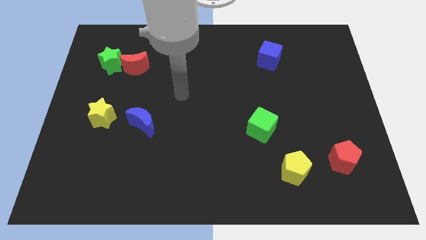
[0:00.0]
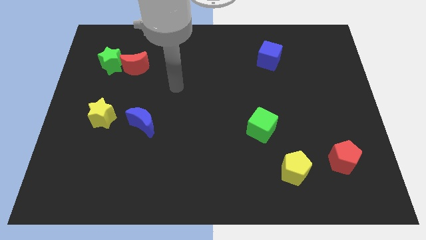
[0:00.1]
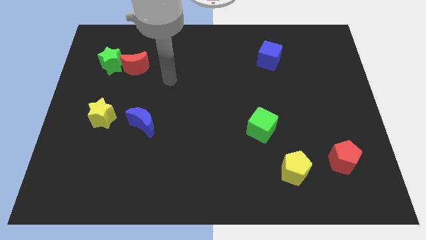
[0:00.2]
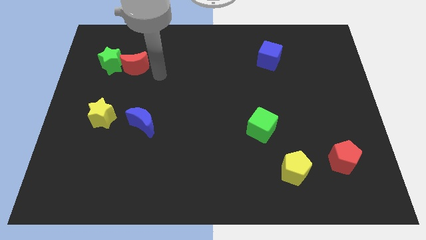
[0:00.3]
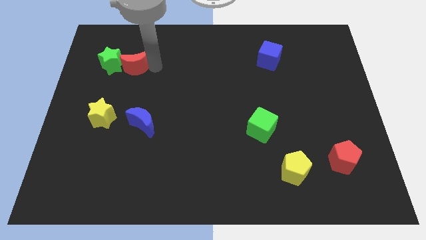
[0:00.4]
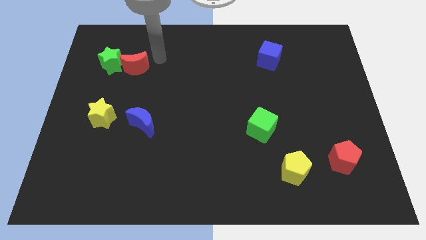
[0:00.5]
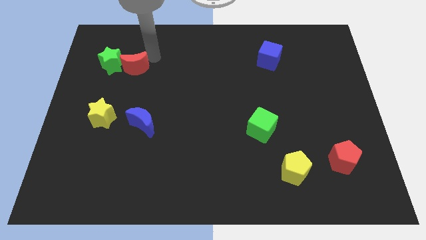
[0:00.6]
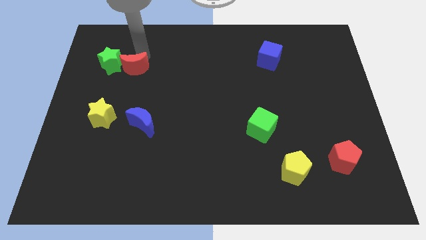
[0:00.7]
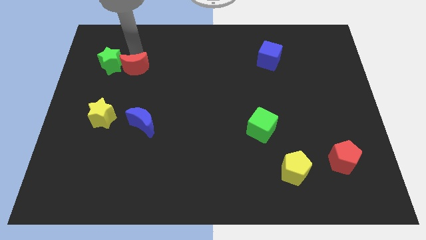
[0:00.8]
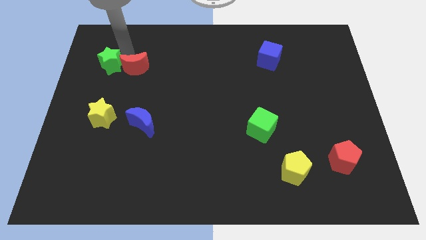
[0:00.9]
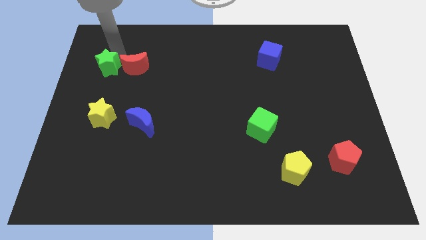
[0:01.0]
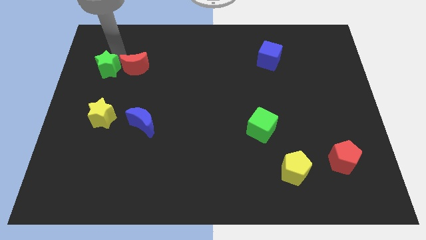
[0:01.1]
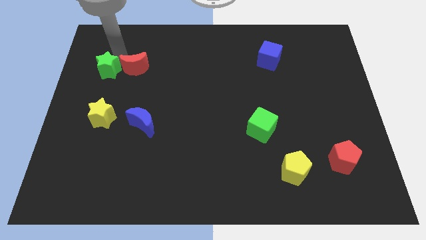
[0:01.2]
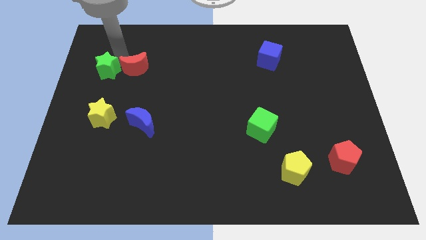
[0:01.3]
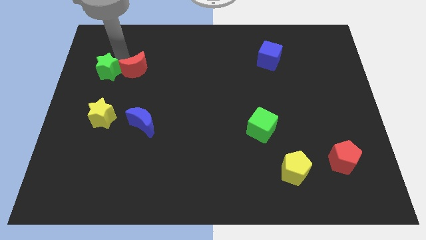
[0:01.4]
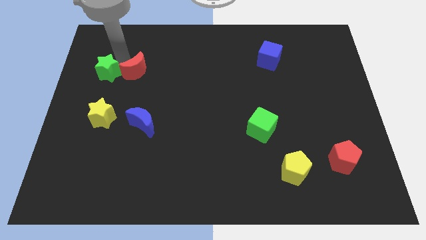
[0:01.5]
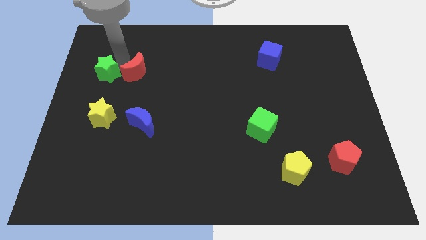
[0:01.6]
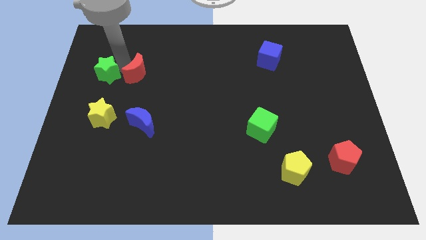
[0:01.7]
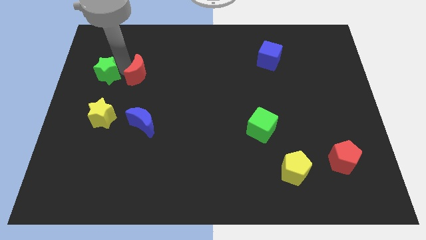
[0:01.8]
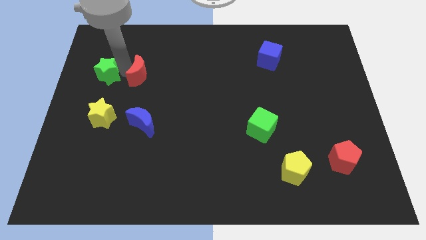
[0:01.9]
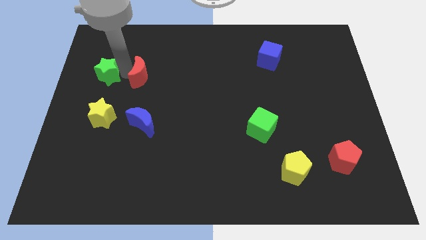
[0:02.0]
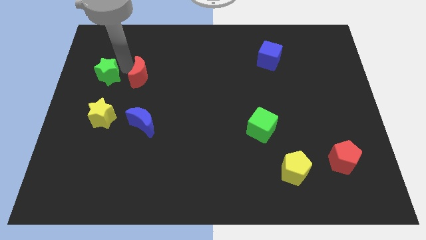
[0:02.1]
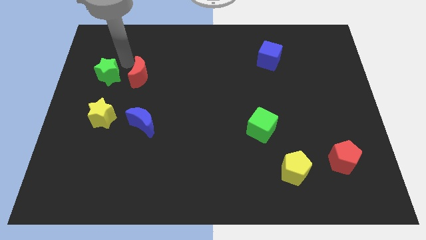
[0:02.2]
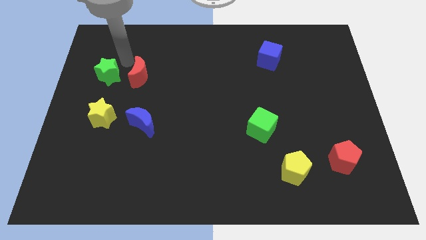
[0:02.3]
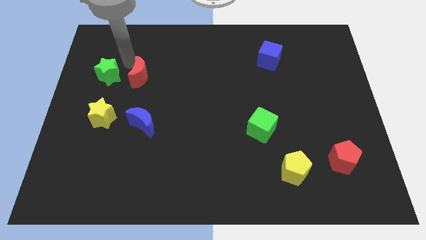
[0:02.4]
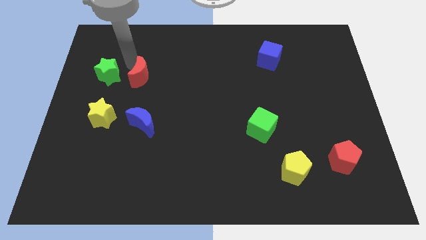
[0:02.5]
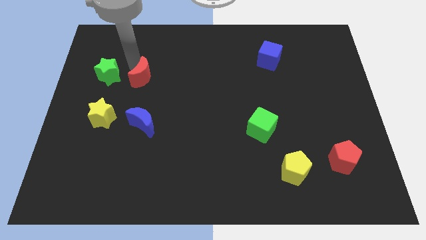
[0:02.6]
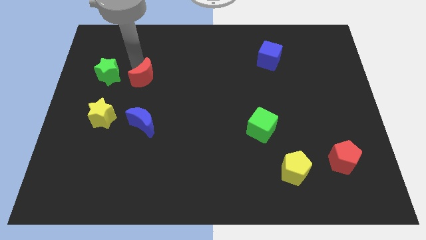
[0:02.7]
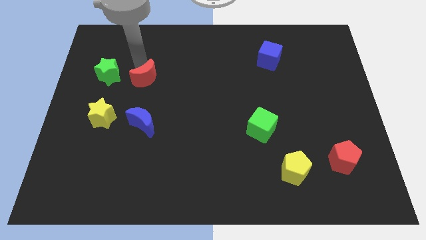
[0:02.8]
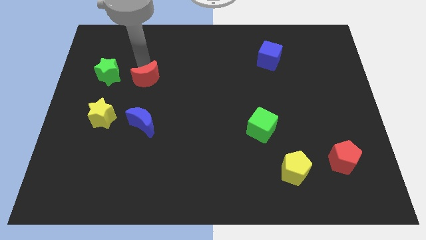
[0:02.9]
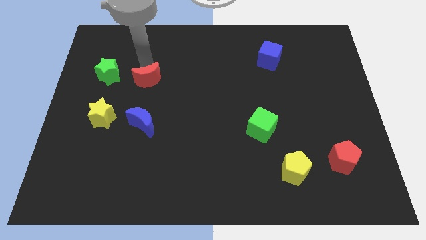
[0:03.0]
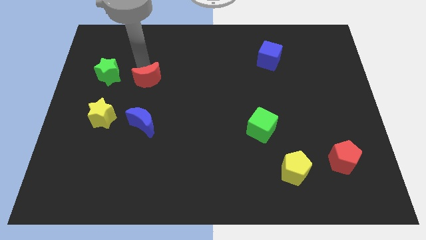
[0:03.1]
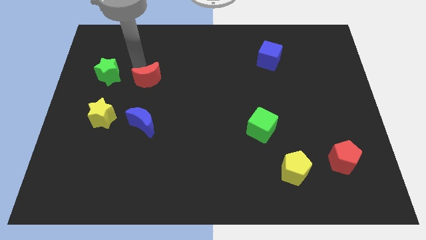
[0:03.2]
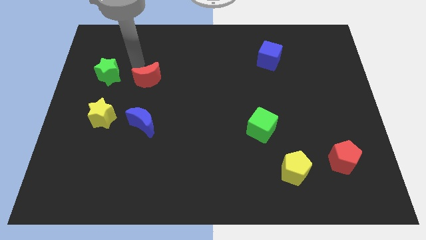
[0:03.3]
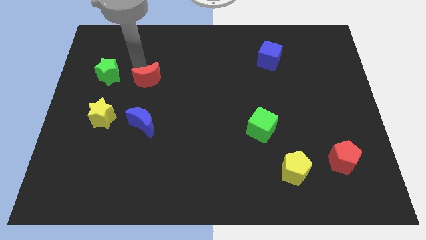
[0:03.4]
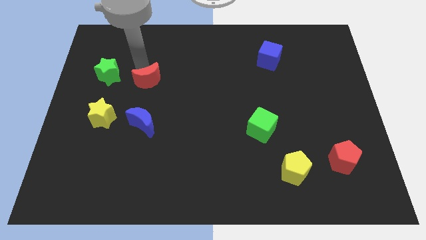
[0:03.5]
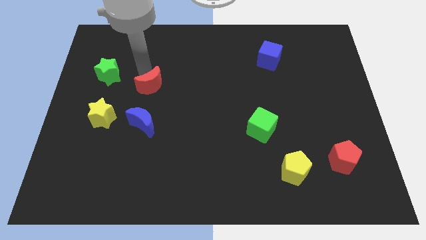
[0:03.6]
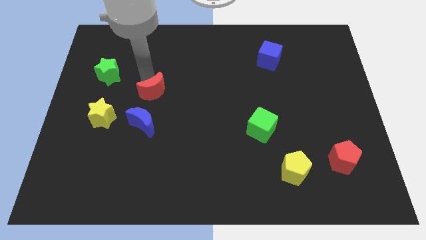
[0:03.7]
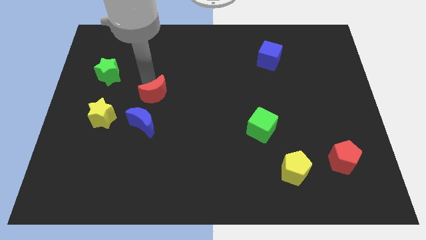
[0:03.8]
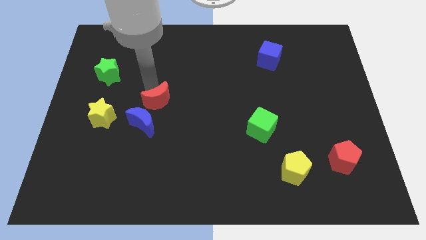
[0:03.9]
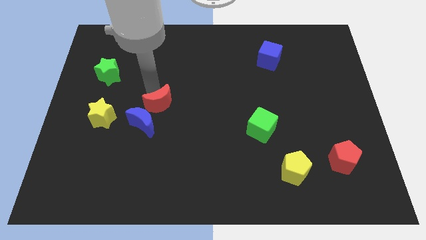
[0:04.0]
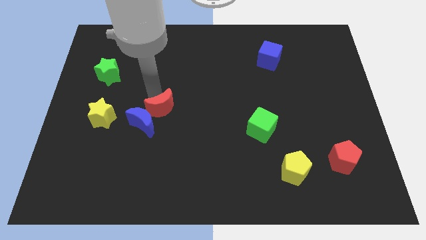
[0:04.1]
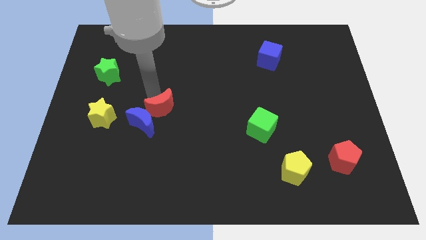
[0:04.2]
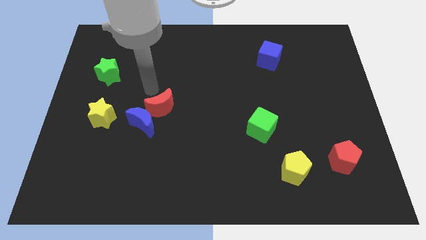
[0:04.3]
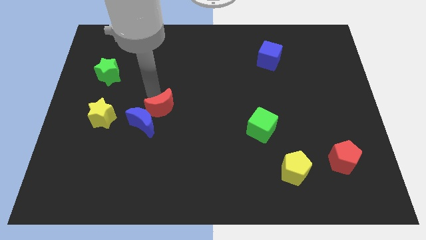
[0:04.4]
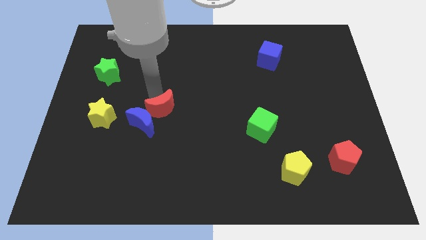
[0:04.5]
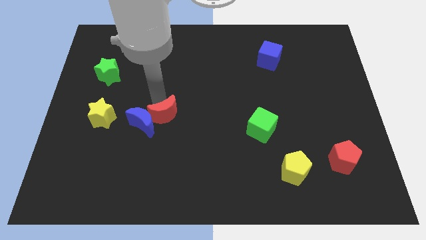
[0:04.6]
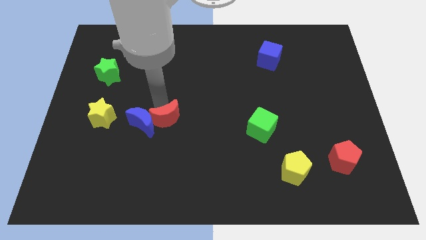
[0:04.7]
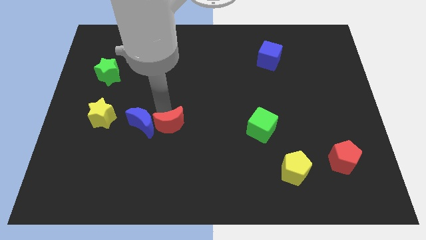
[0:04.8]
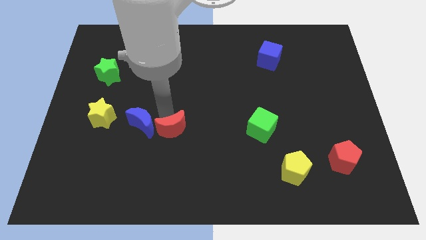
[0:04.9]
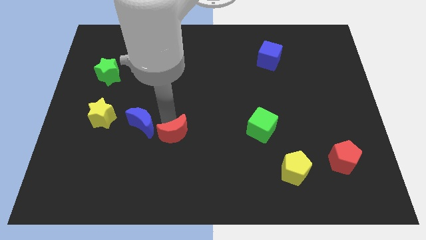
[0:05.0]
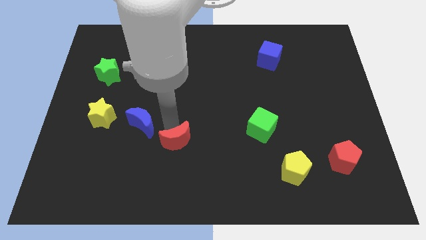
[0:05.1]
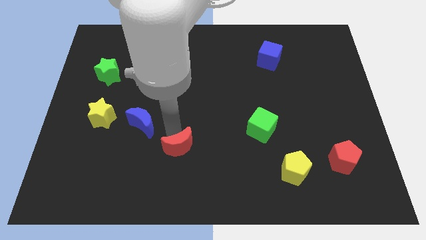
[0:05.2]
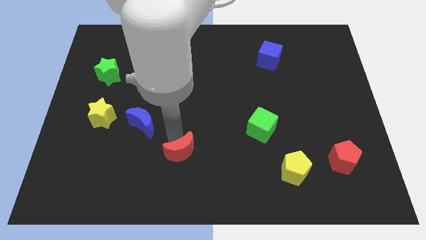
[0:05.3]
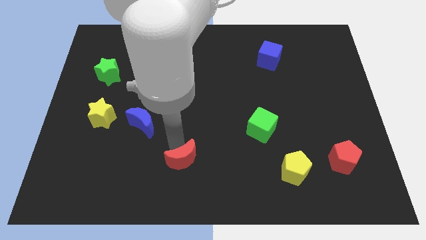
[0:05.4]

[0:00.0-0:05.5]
move the red moon to the bottom side
